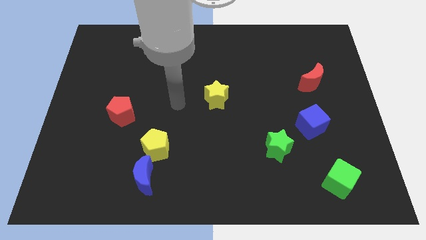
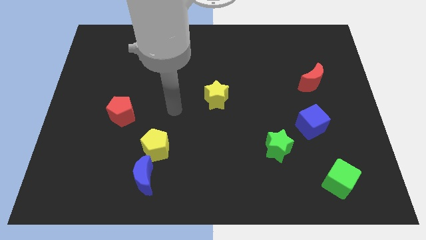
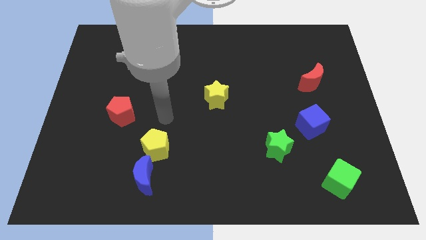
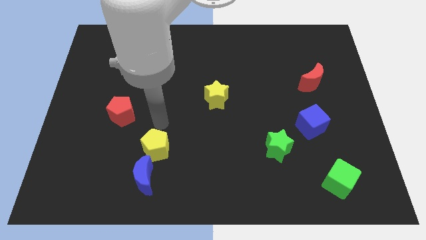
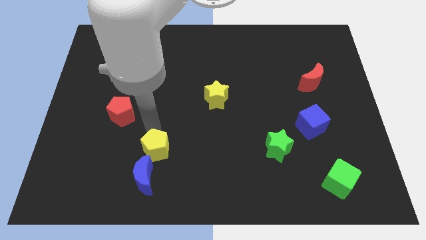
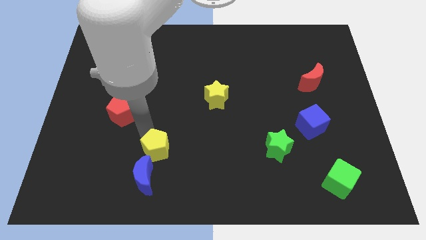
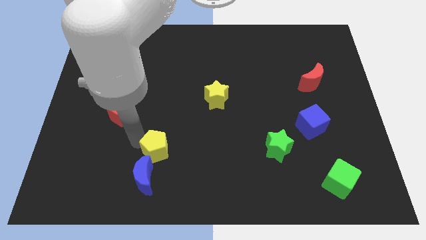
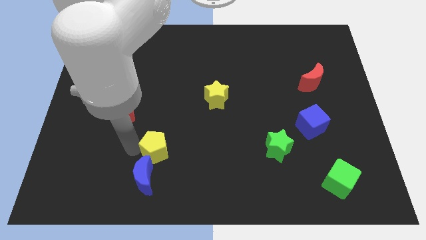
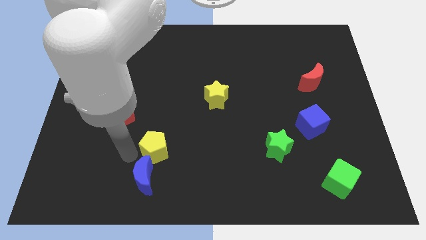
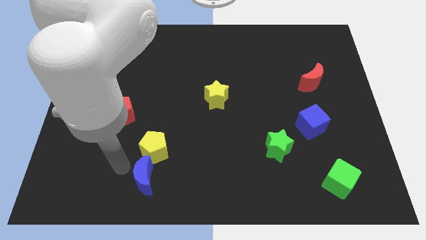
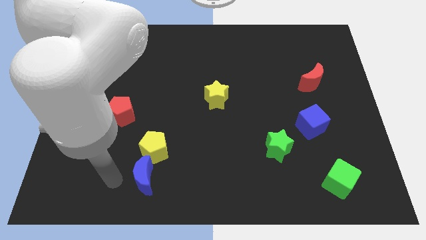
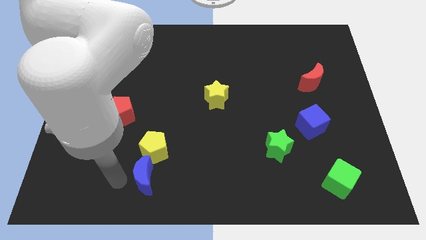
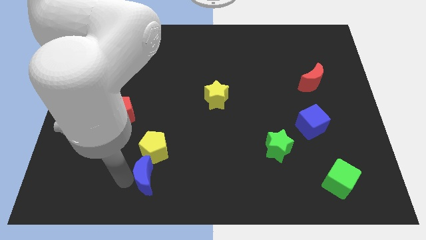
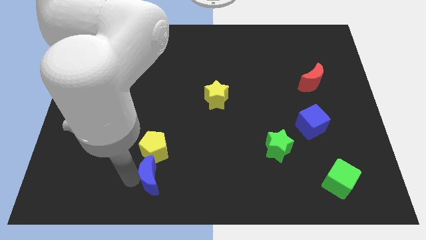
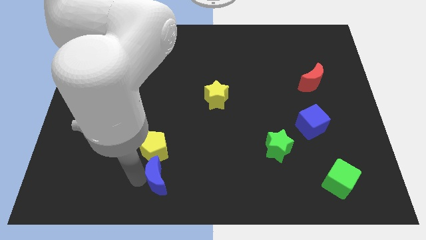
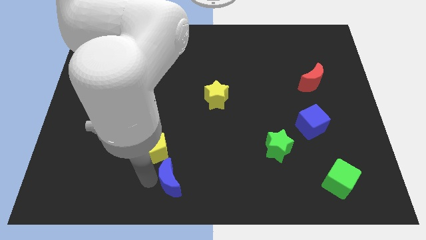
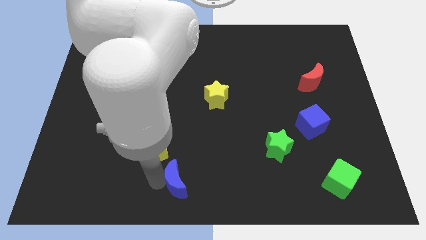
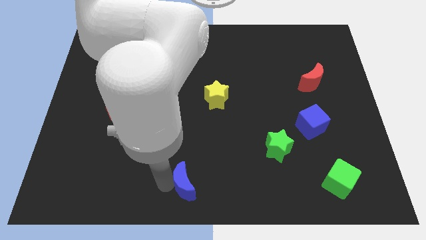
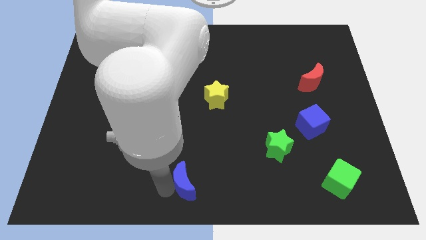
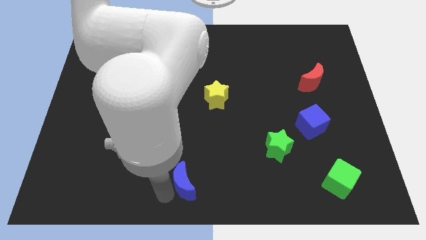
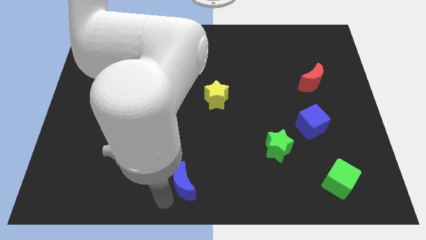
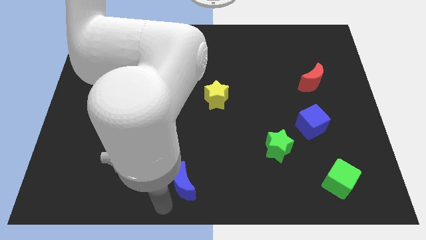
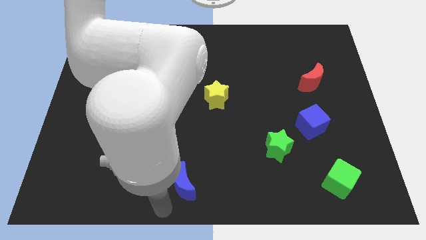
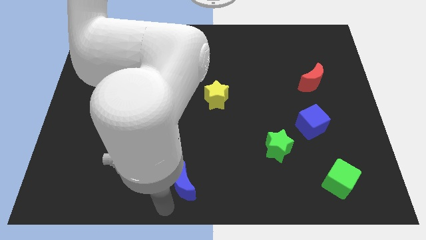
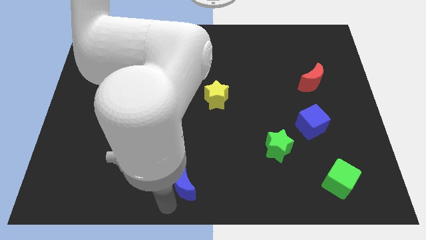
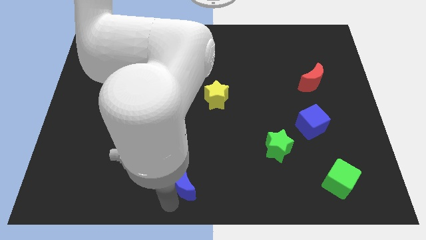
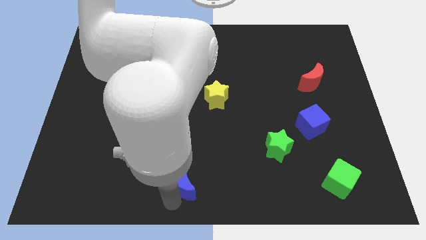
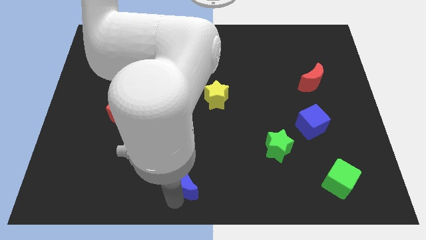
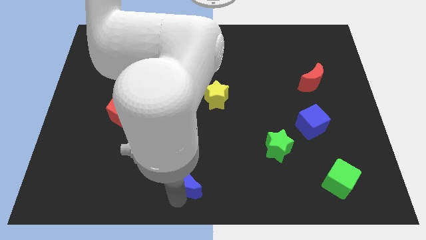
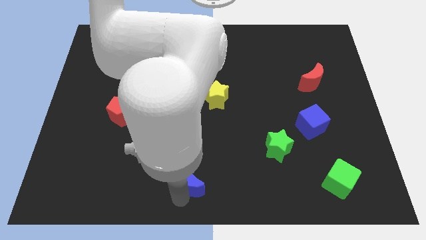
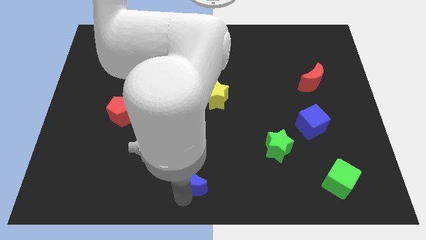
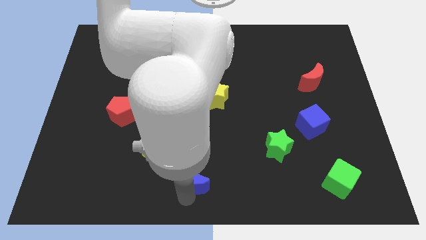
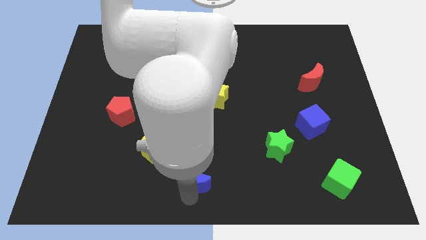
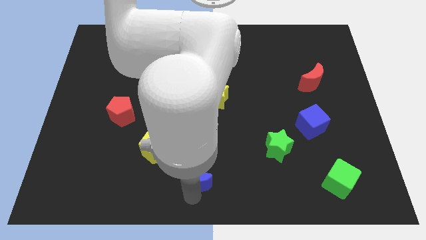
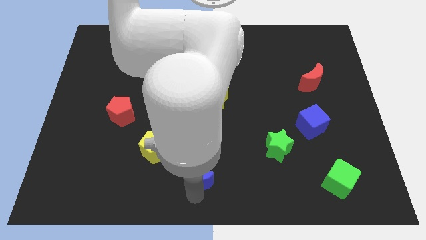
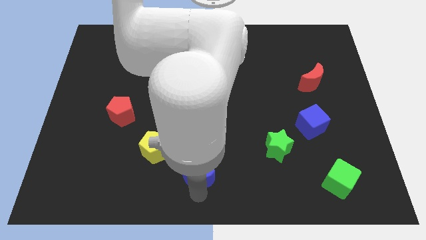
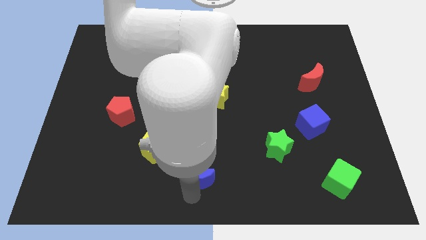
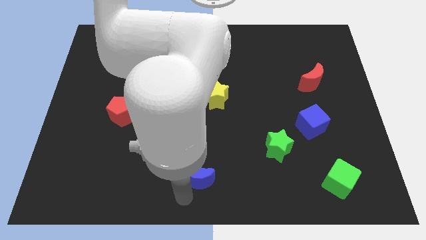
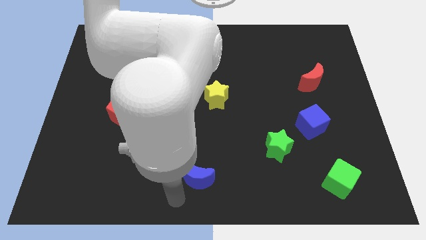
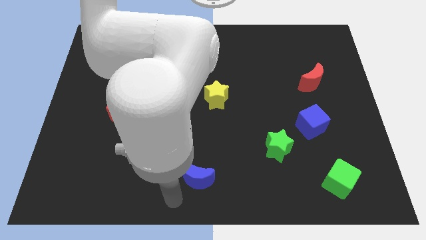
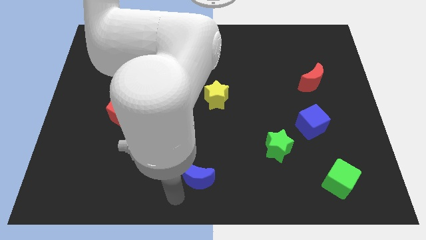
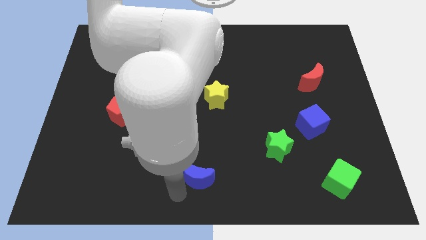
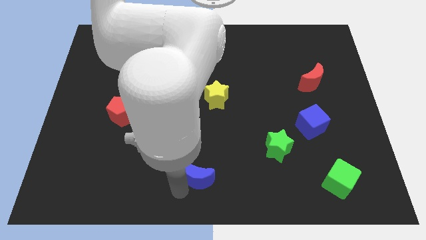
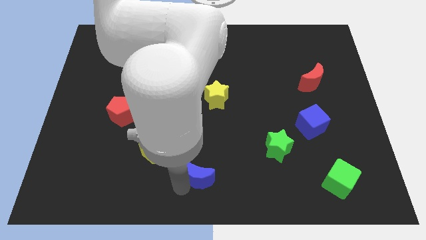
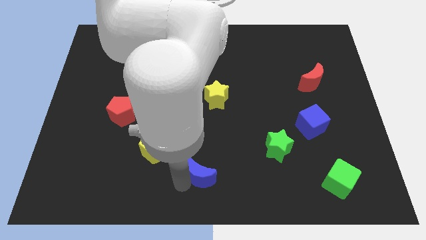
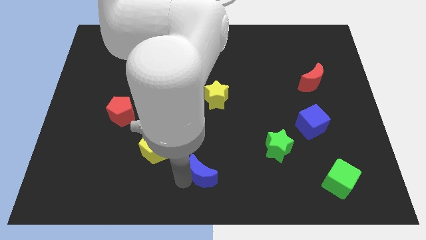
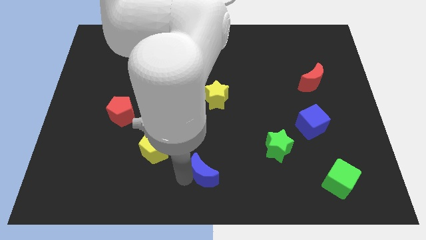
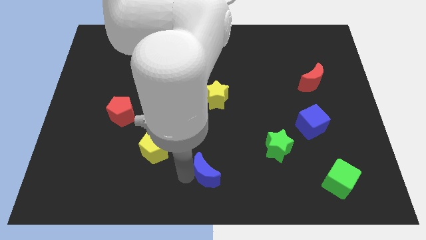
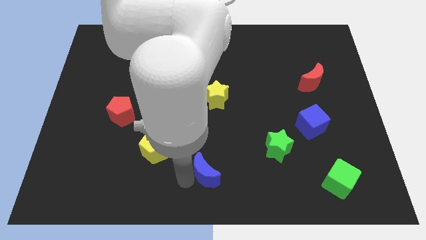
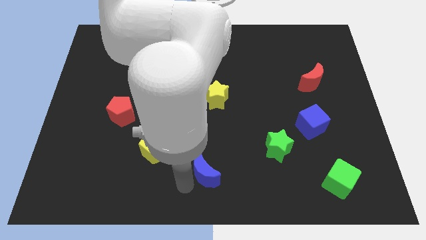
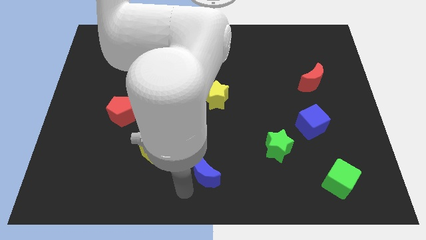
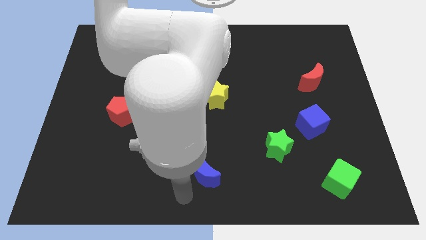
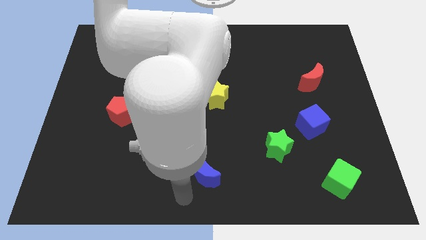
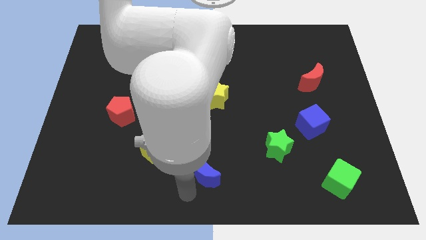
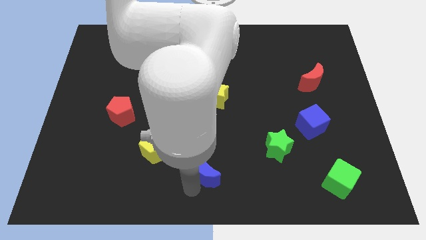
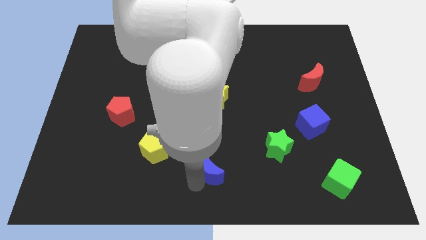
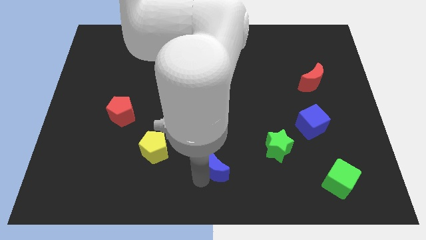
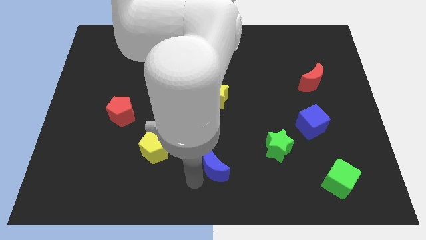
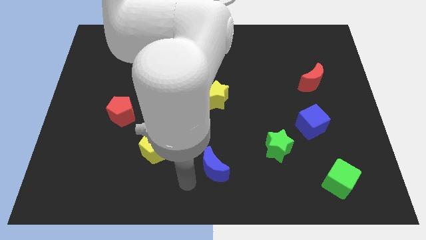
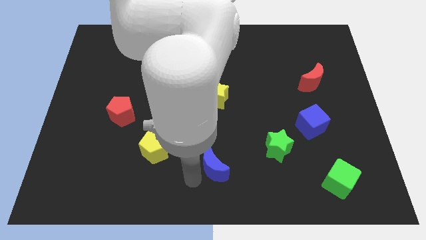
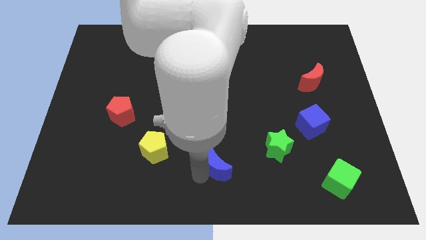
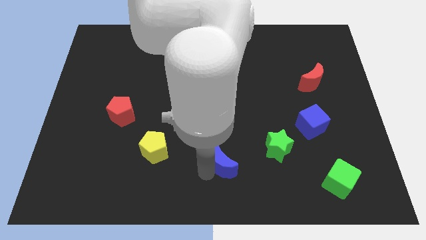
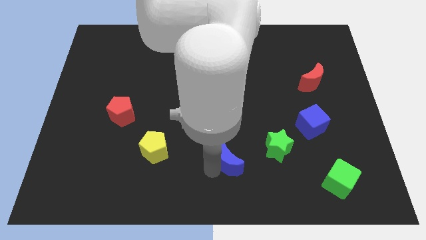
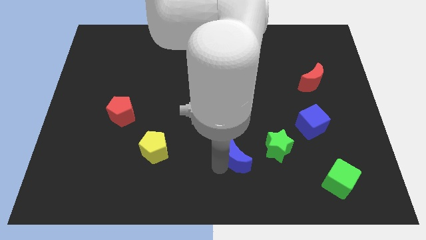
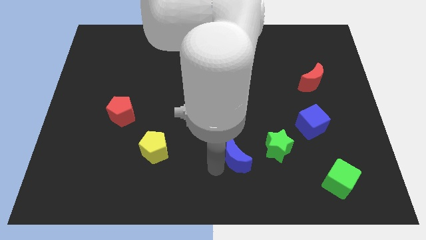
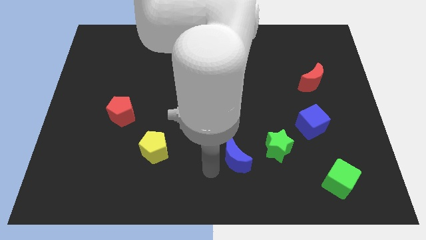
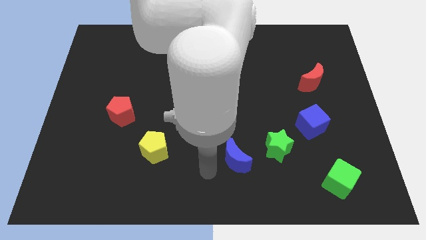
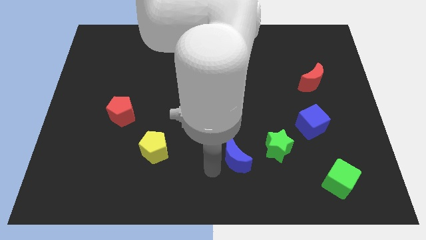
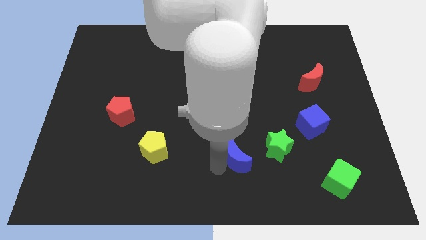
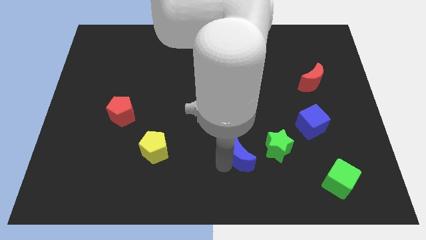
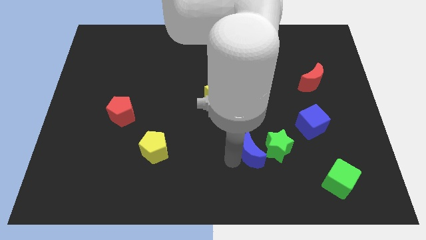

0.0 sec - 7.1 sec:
slide the blue moon to the green star
